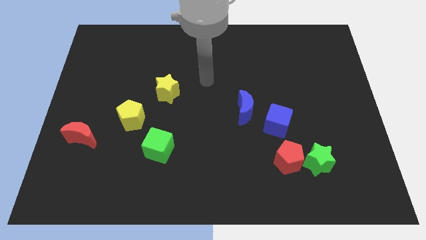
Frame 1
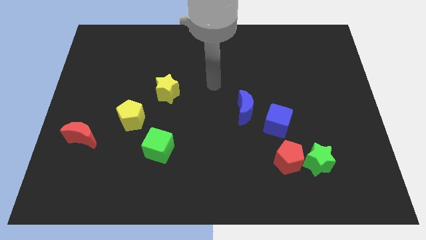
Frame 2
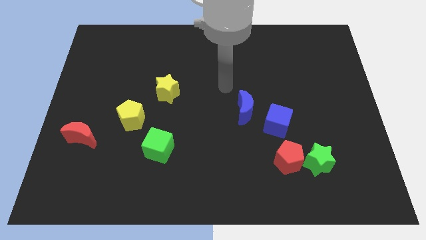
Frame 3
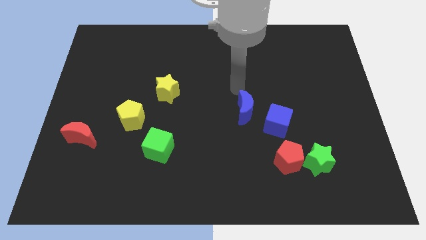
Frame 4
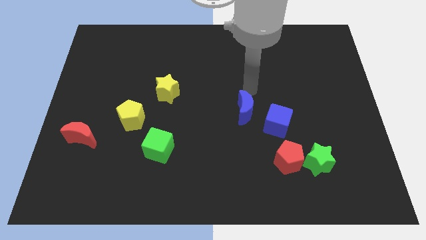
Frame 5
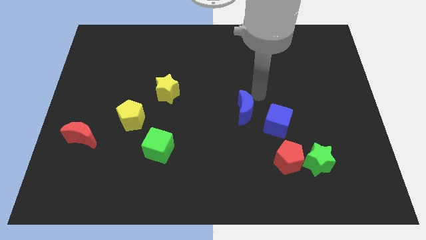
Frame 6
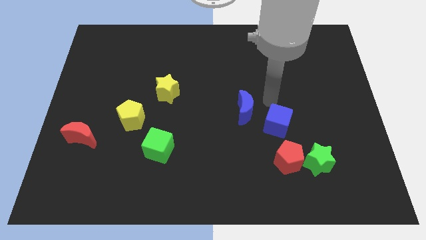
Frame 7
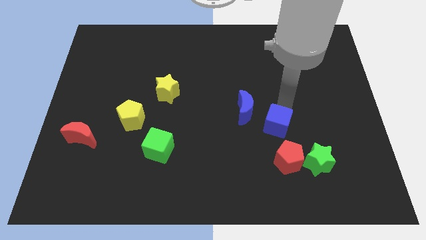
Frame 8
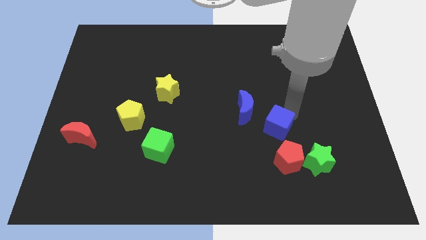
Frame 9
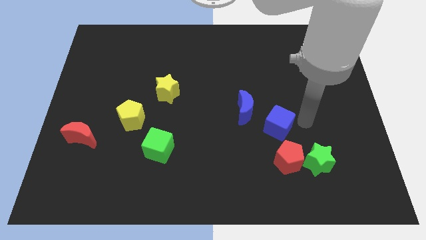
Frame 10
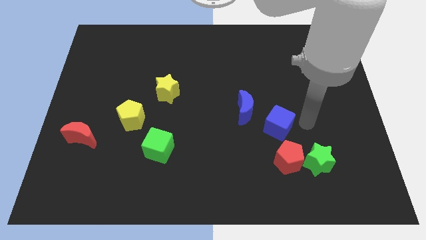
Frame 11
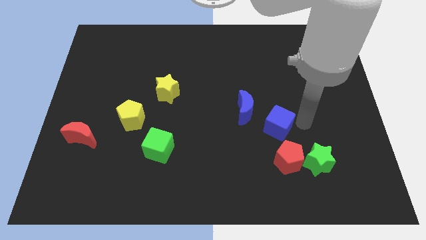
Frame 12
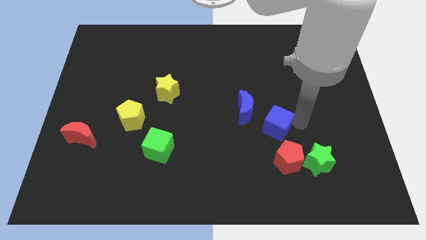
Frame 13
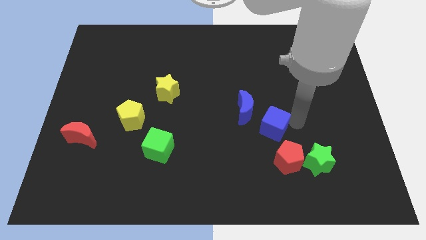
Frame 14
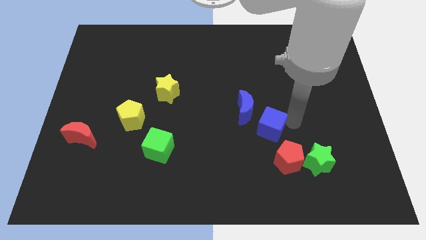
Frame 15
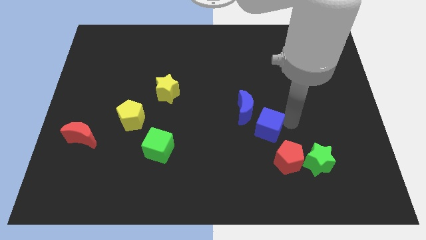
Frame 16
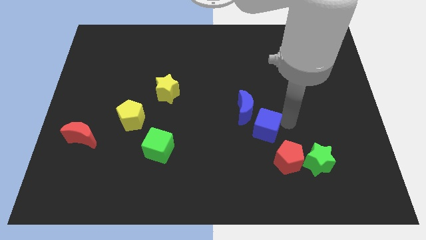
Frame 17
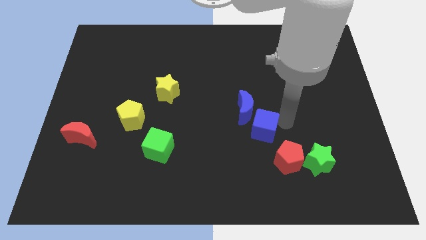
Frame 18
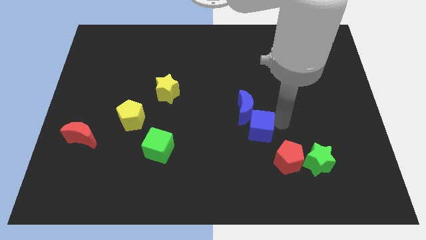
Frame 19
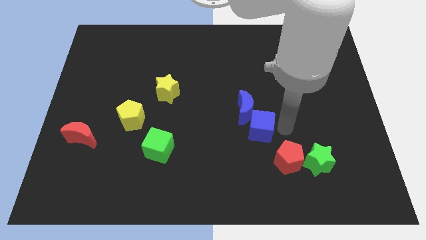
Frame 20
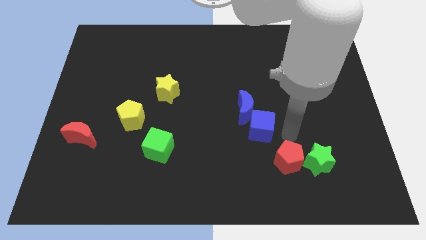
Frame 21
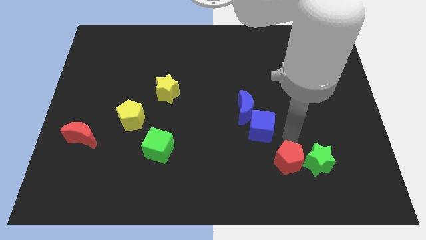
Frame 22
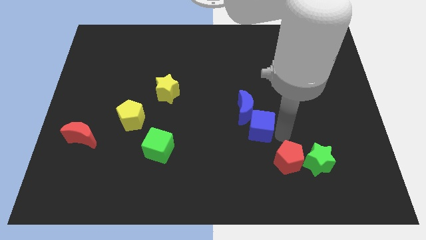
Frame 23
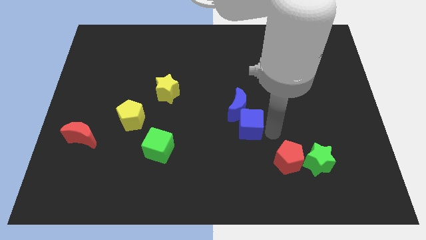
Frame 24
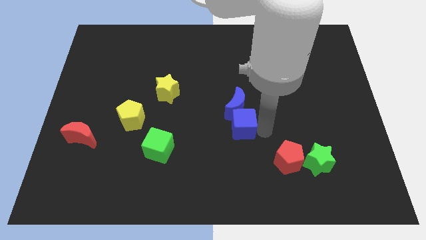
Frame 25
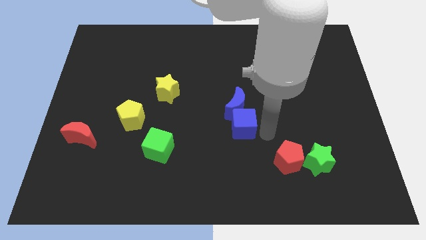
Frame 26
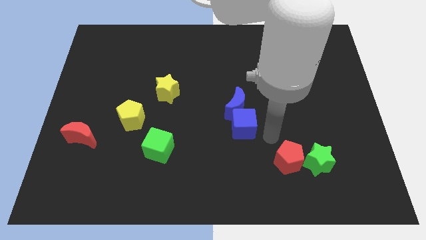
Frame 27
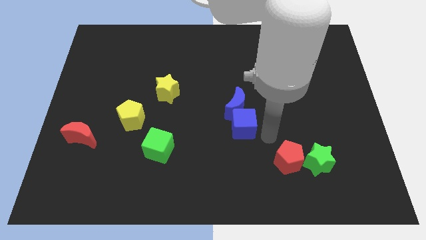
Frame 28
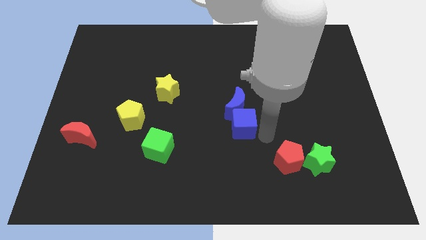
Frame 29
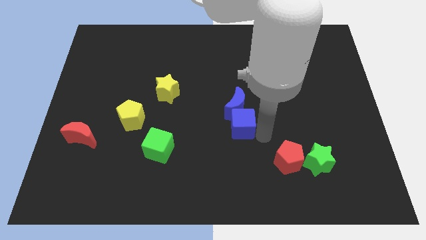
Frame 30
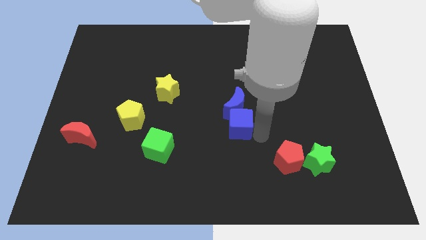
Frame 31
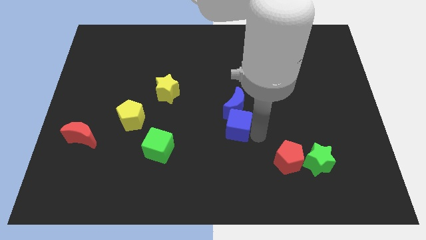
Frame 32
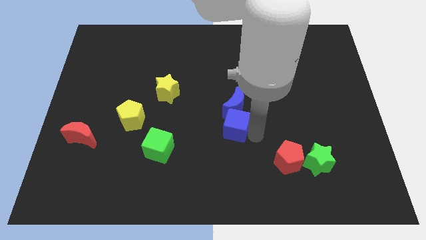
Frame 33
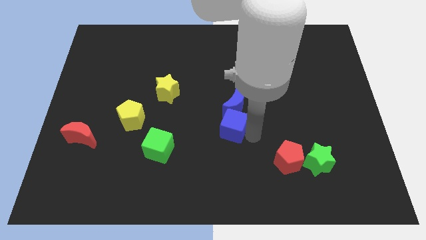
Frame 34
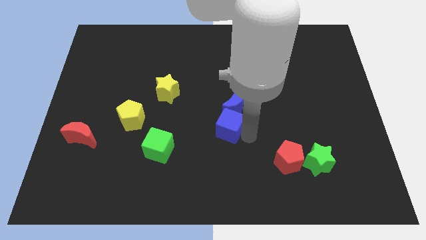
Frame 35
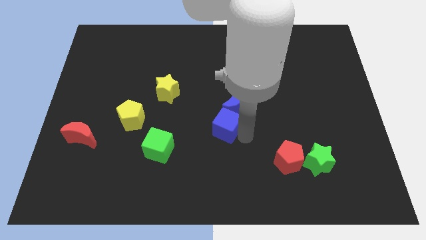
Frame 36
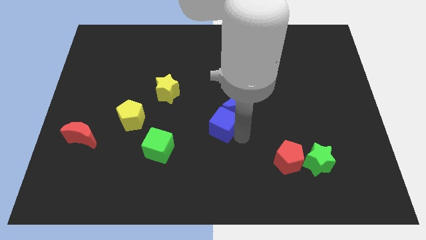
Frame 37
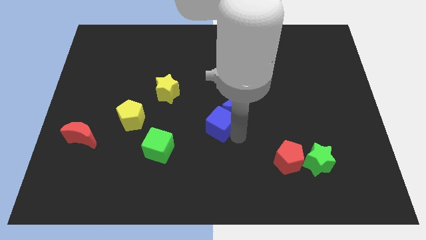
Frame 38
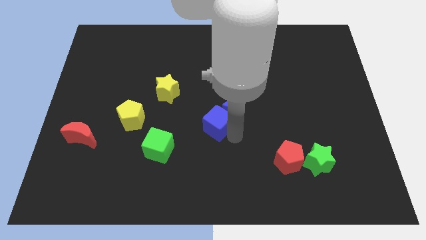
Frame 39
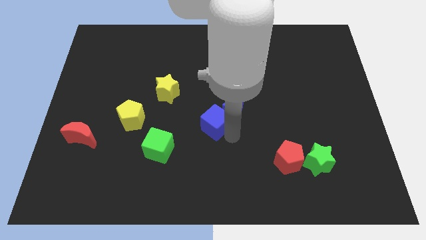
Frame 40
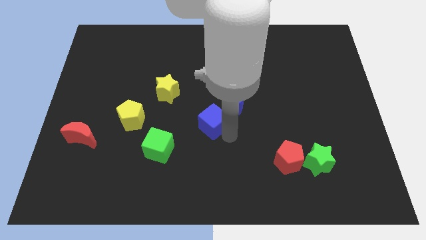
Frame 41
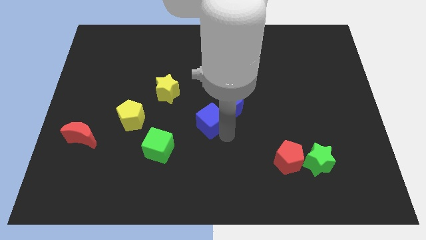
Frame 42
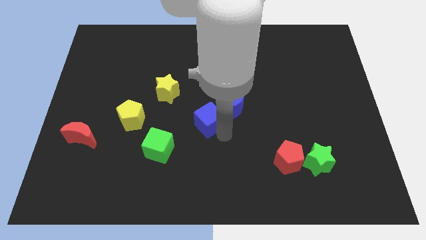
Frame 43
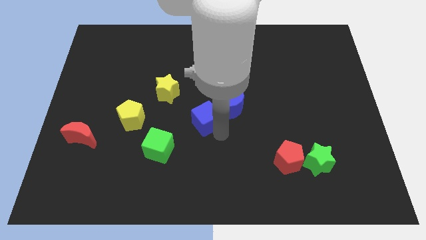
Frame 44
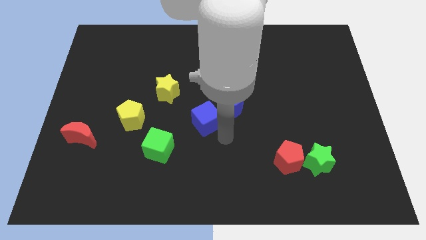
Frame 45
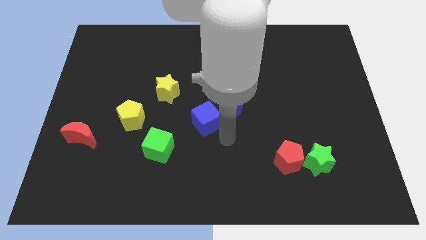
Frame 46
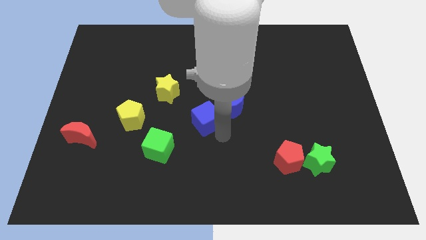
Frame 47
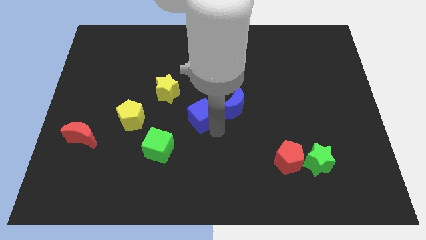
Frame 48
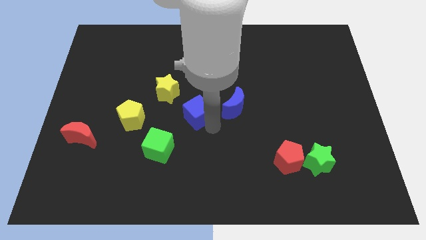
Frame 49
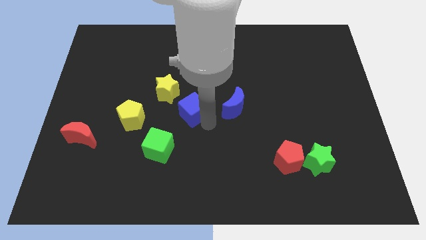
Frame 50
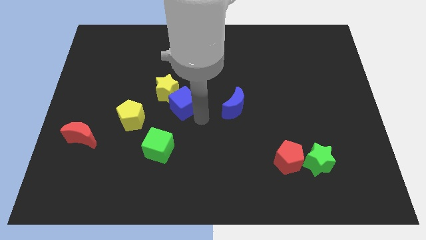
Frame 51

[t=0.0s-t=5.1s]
push the blue cube close to the yellow star

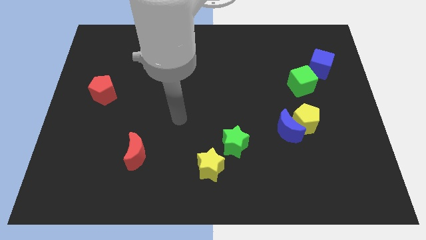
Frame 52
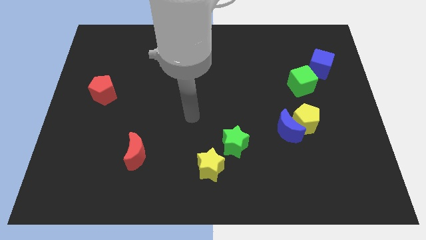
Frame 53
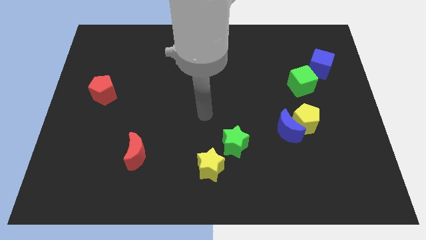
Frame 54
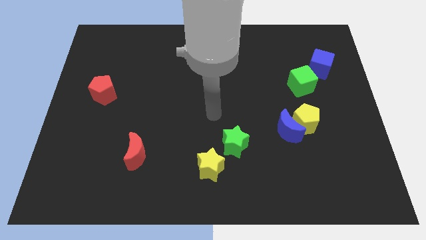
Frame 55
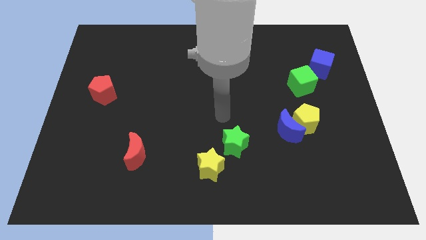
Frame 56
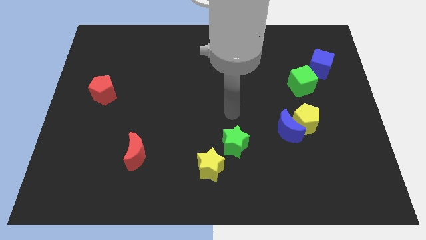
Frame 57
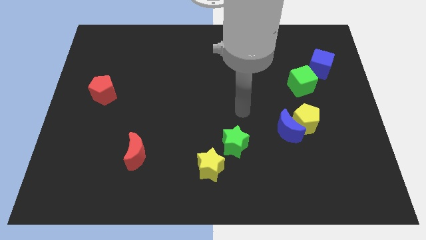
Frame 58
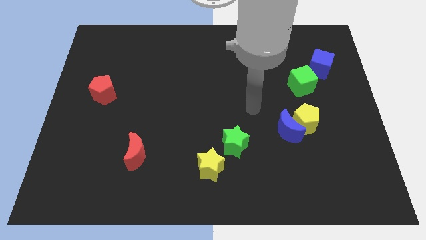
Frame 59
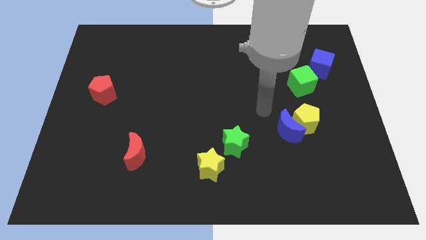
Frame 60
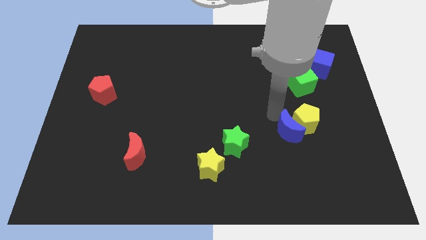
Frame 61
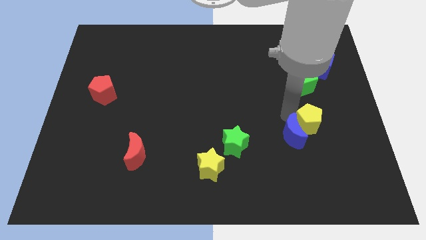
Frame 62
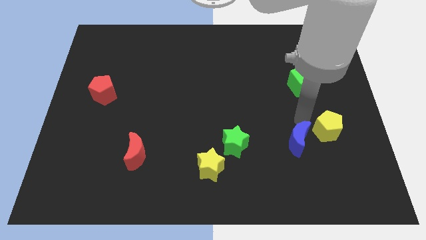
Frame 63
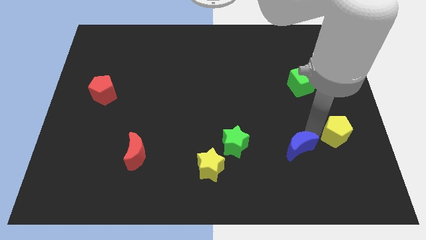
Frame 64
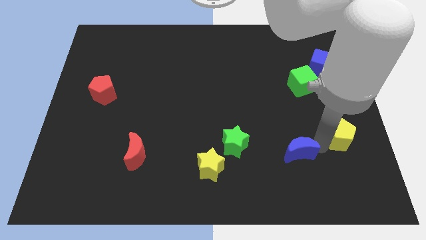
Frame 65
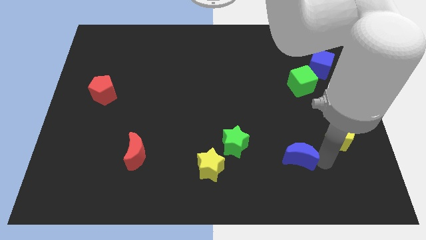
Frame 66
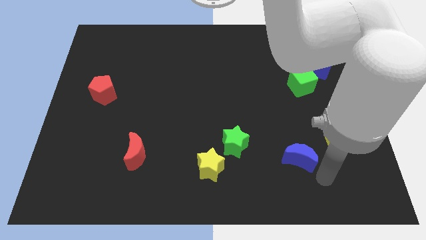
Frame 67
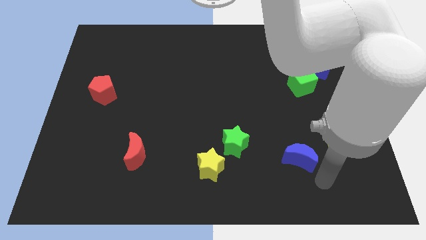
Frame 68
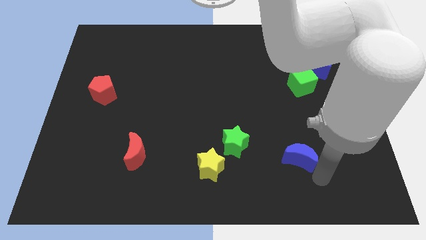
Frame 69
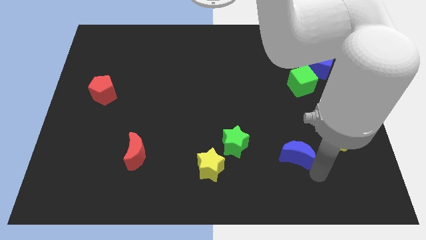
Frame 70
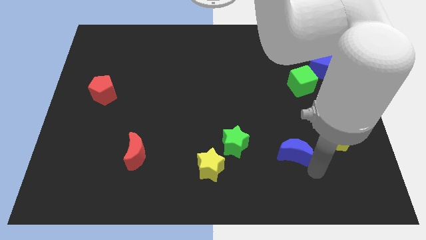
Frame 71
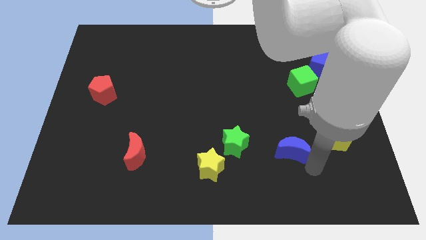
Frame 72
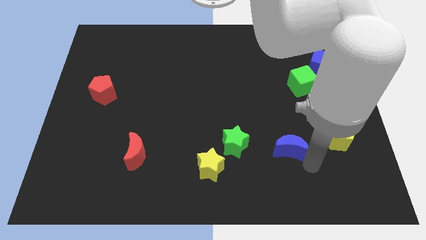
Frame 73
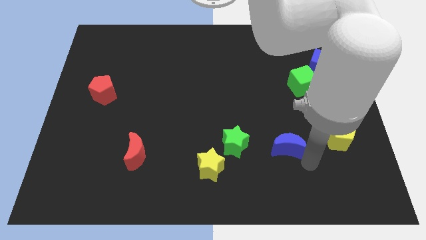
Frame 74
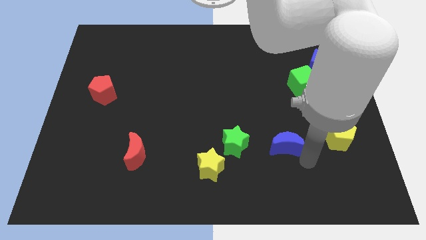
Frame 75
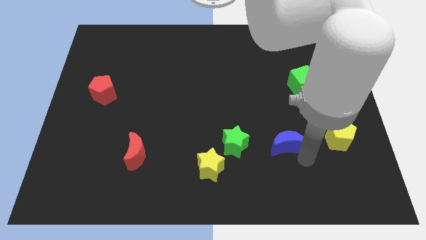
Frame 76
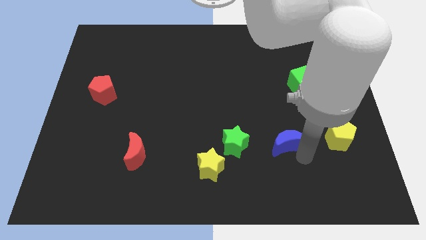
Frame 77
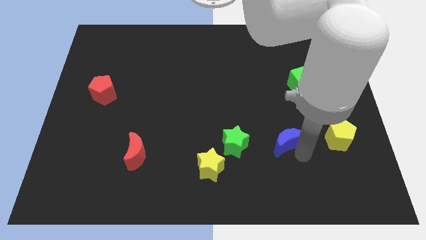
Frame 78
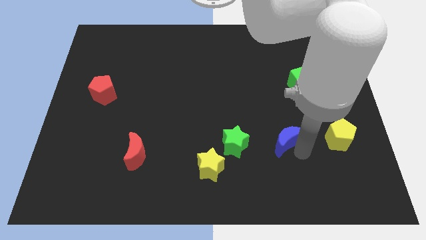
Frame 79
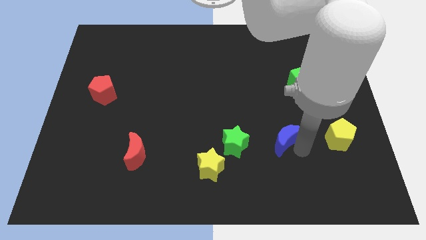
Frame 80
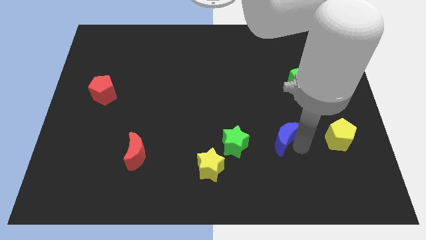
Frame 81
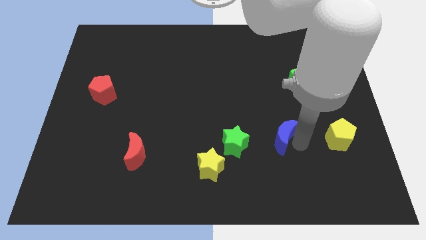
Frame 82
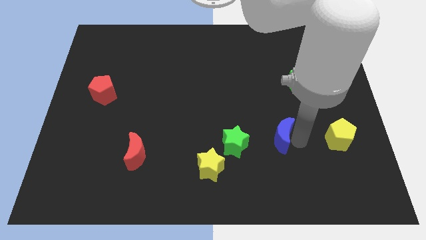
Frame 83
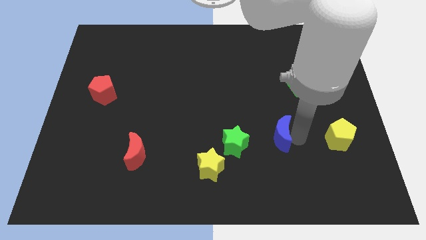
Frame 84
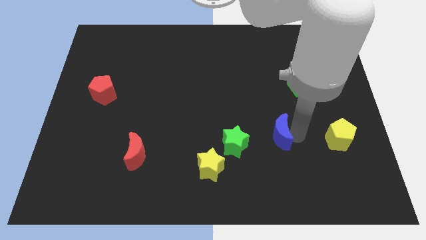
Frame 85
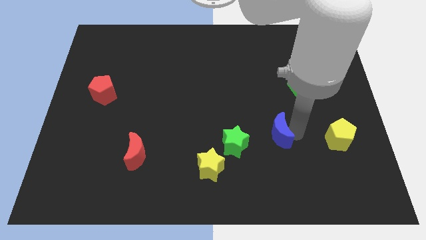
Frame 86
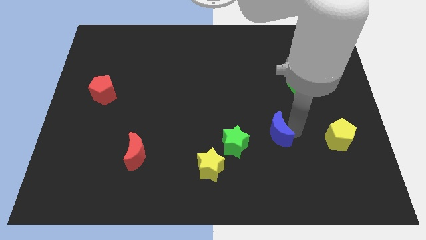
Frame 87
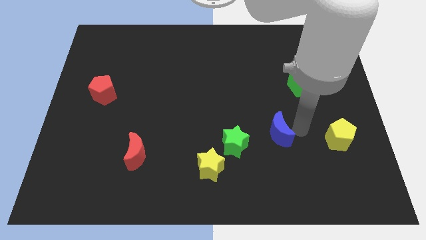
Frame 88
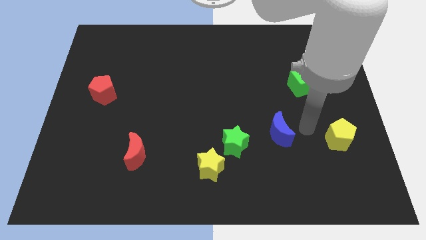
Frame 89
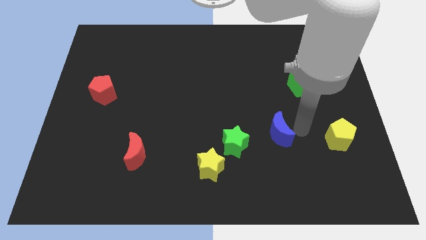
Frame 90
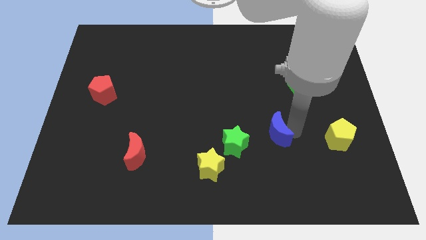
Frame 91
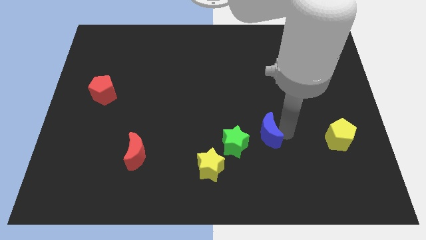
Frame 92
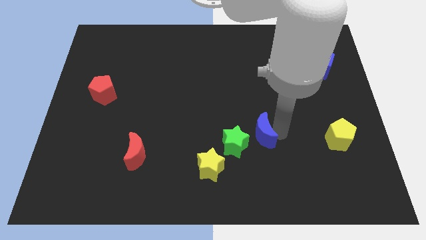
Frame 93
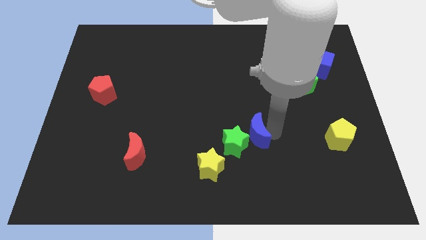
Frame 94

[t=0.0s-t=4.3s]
slide the blue moon next to the green star
